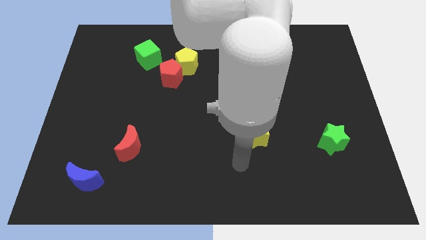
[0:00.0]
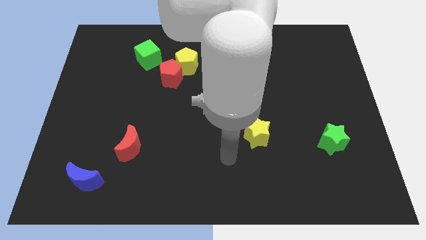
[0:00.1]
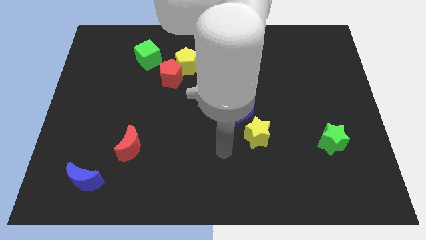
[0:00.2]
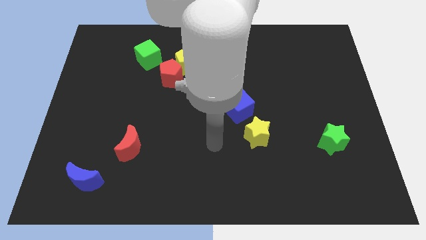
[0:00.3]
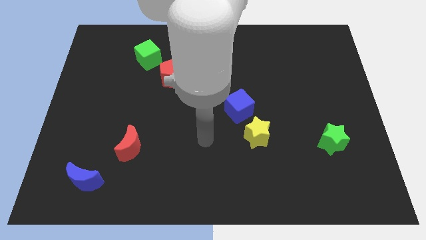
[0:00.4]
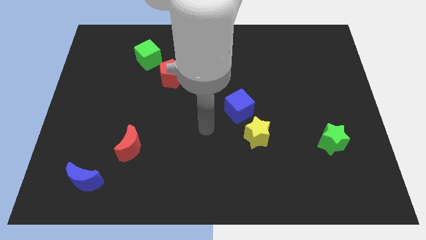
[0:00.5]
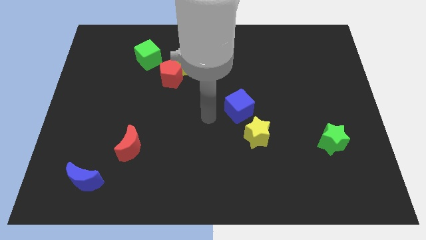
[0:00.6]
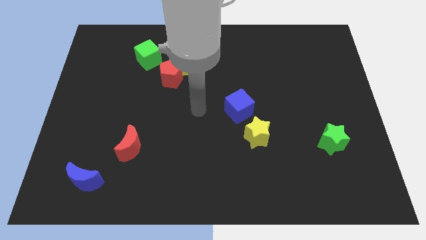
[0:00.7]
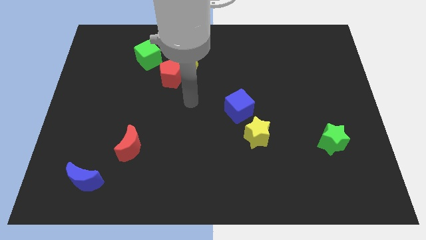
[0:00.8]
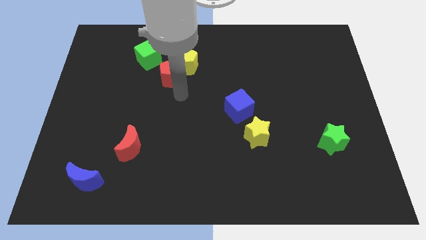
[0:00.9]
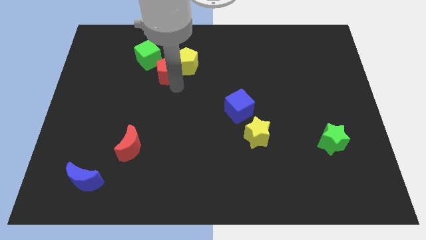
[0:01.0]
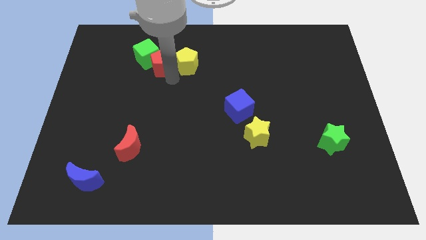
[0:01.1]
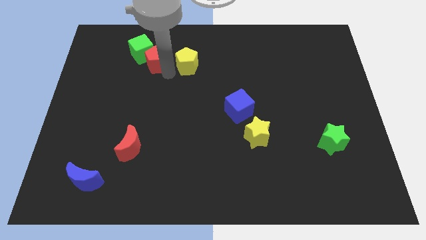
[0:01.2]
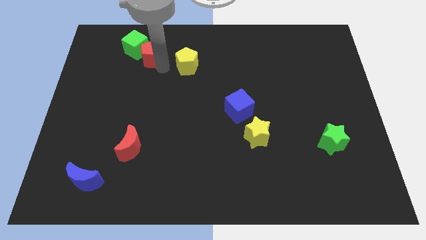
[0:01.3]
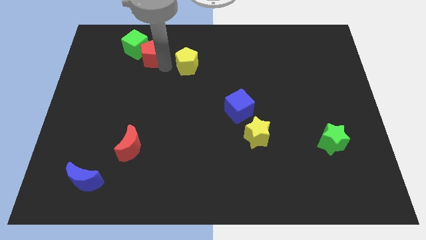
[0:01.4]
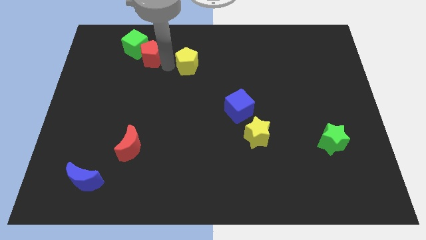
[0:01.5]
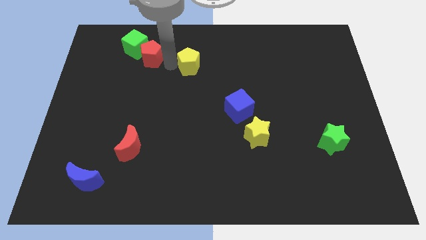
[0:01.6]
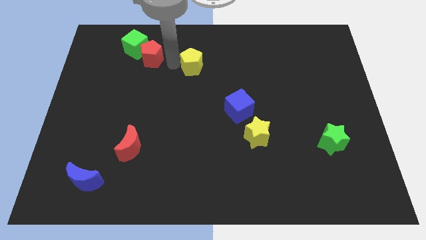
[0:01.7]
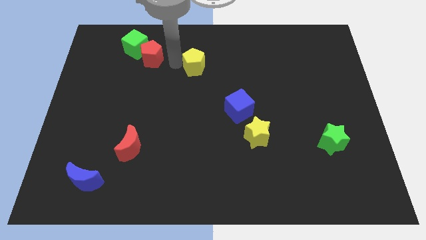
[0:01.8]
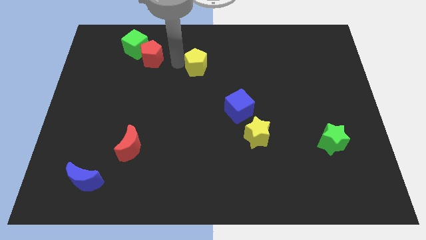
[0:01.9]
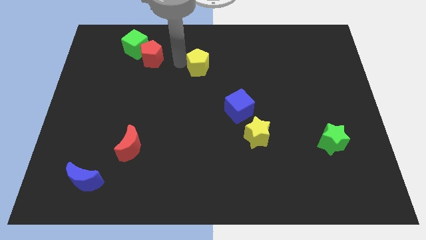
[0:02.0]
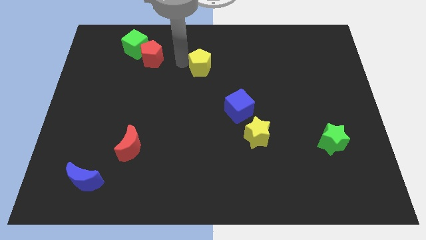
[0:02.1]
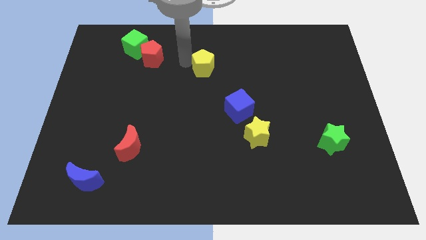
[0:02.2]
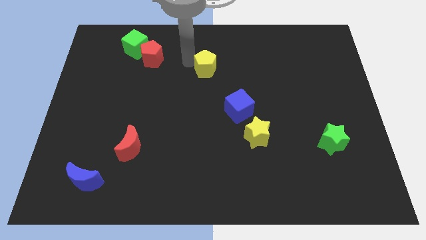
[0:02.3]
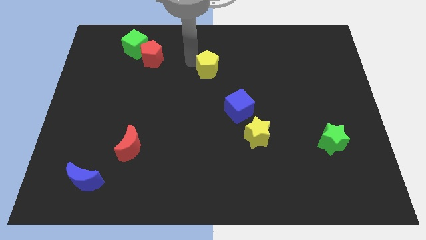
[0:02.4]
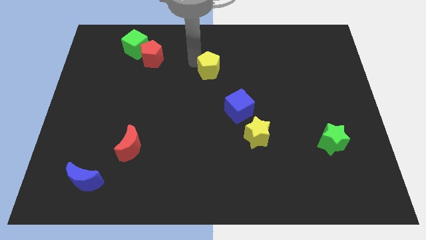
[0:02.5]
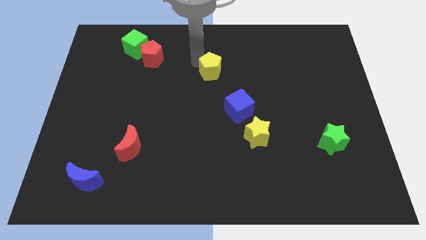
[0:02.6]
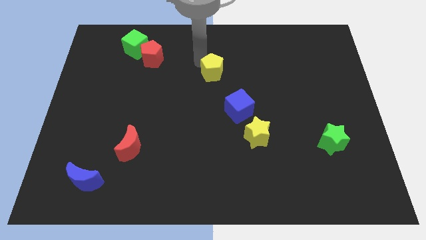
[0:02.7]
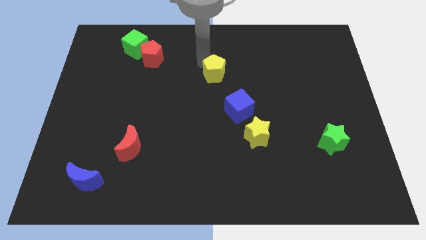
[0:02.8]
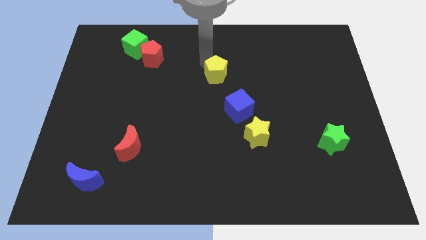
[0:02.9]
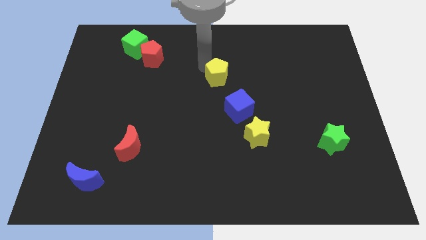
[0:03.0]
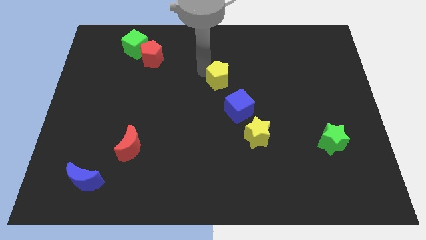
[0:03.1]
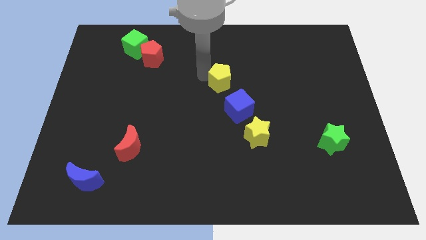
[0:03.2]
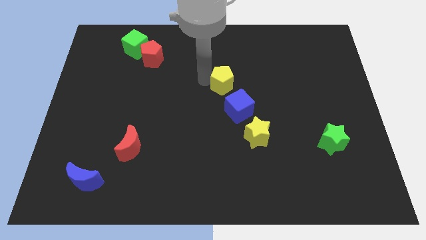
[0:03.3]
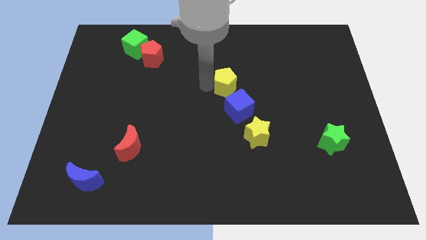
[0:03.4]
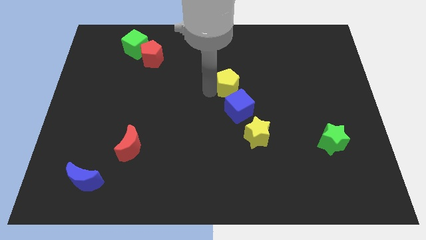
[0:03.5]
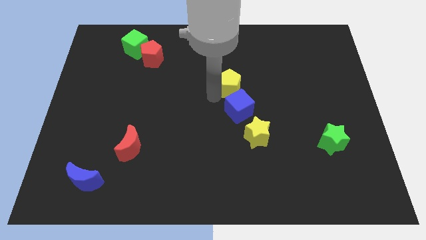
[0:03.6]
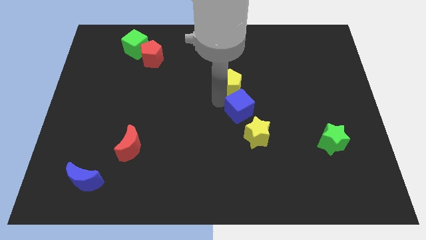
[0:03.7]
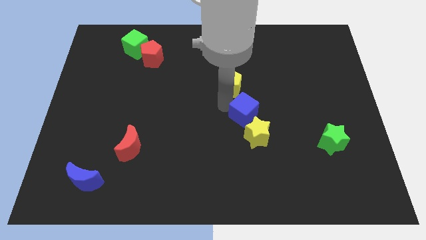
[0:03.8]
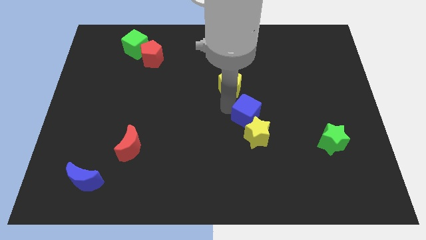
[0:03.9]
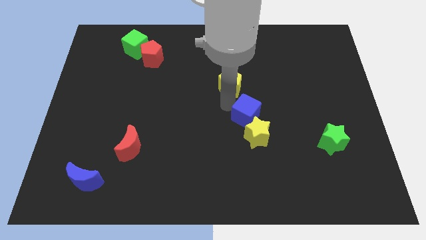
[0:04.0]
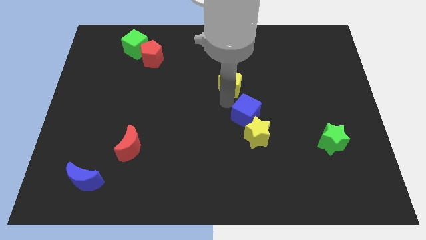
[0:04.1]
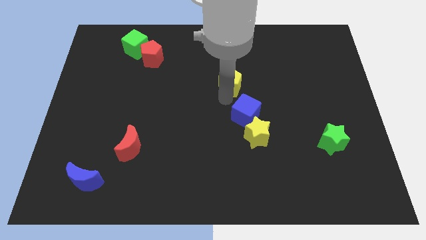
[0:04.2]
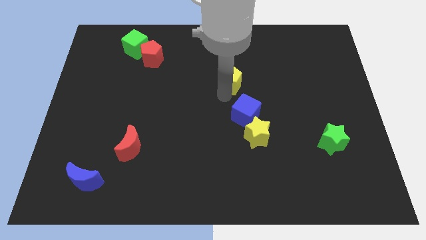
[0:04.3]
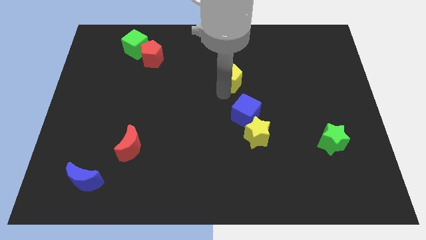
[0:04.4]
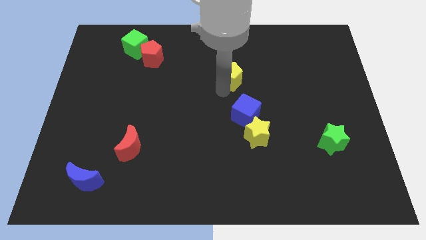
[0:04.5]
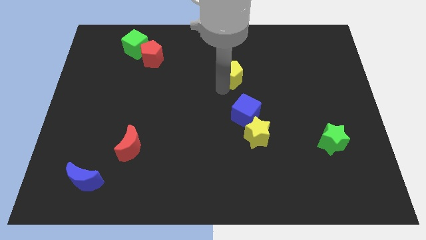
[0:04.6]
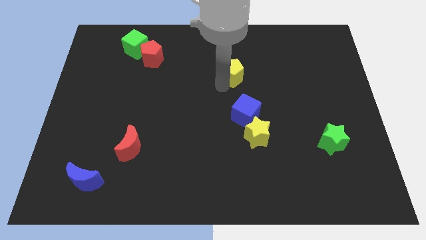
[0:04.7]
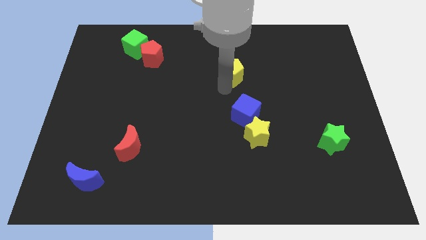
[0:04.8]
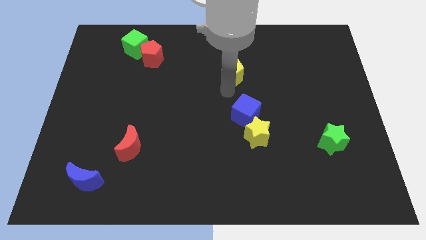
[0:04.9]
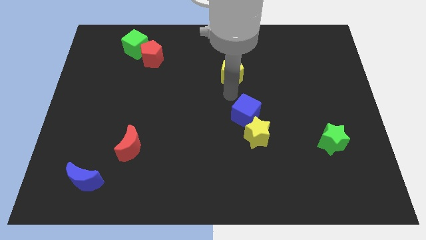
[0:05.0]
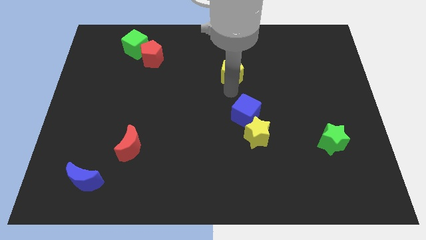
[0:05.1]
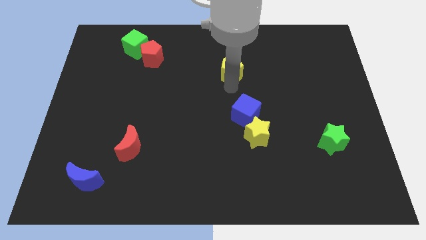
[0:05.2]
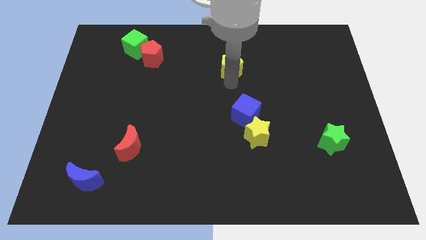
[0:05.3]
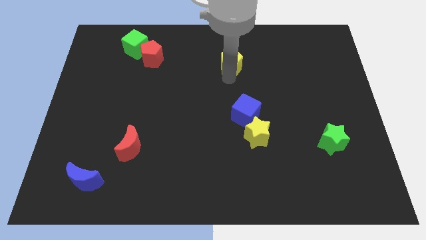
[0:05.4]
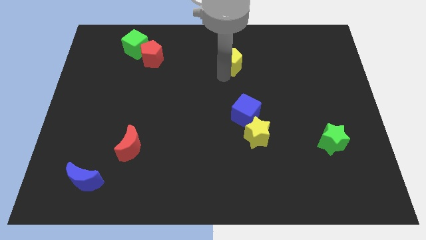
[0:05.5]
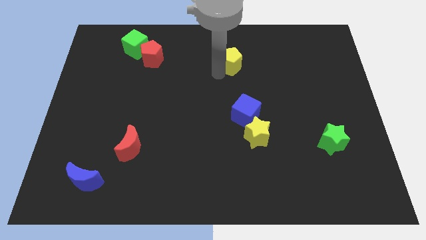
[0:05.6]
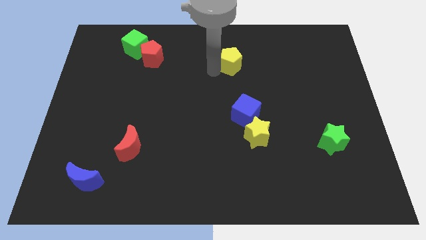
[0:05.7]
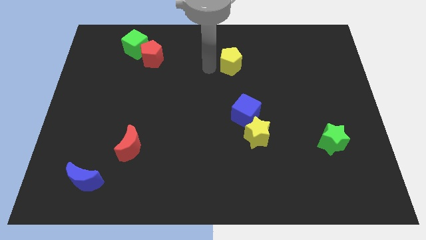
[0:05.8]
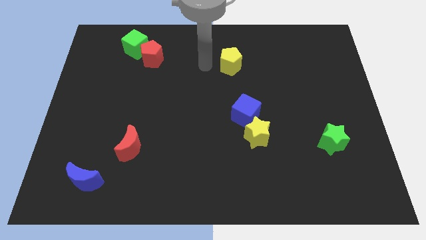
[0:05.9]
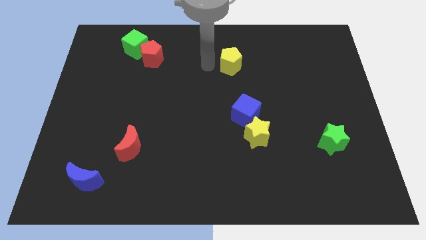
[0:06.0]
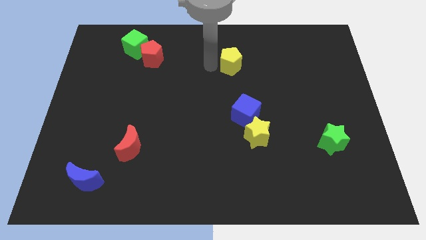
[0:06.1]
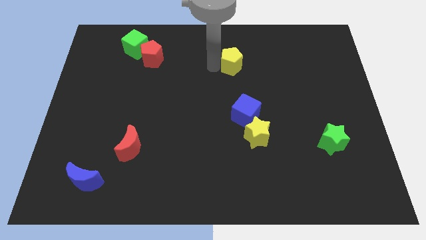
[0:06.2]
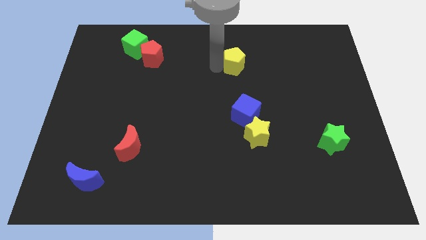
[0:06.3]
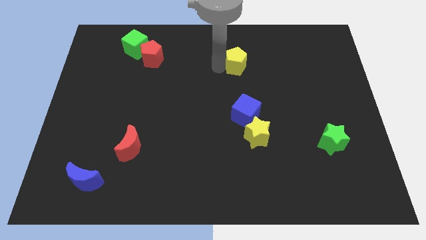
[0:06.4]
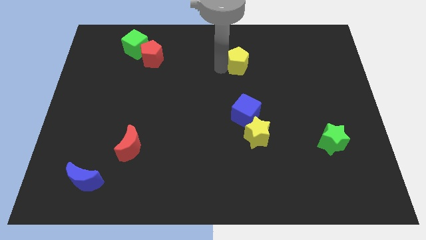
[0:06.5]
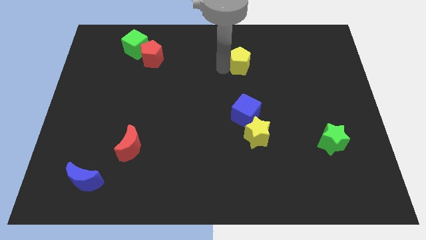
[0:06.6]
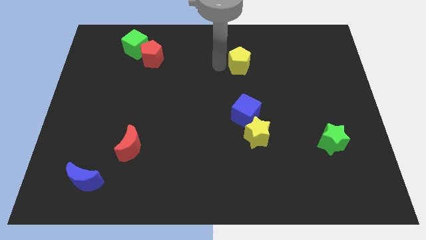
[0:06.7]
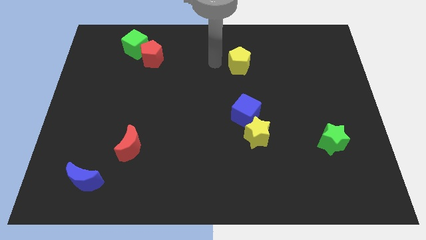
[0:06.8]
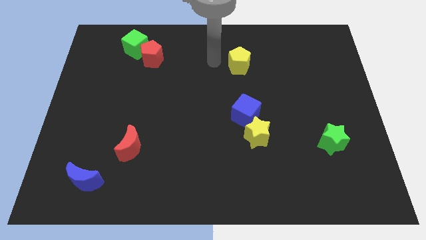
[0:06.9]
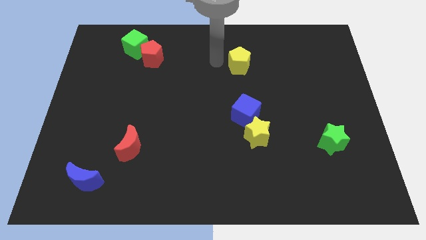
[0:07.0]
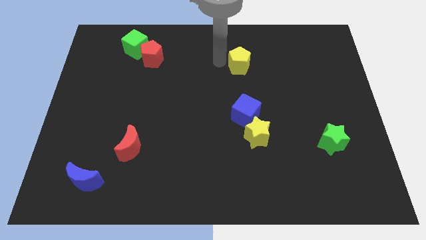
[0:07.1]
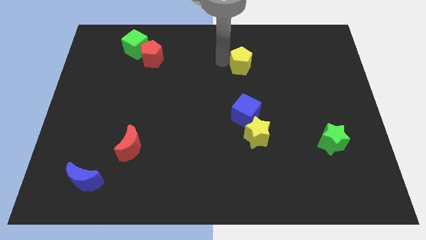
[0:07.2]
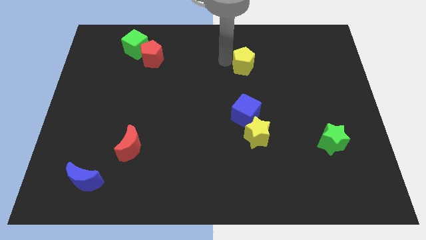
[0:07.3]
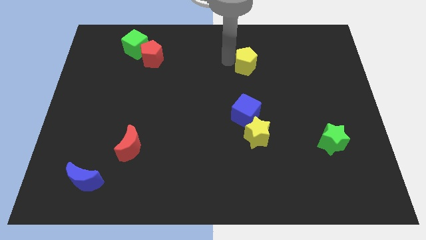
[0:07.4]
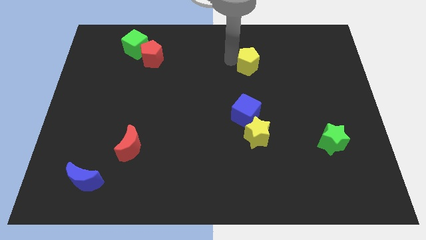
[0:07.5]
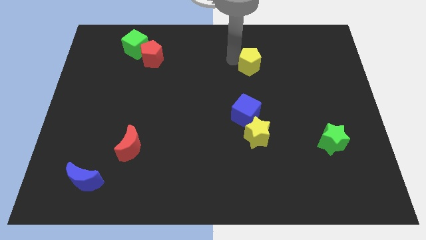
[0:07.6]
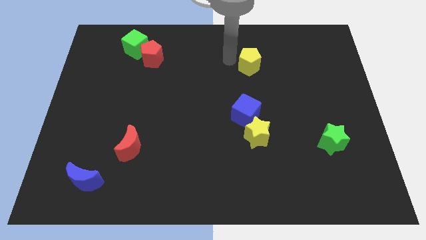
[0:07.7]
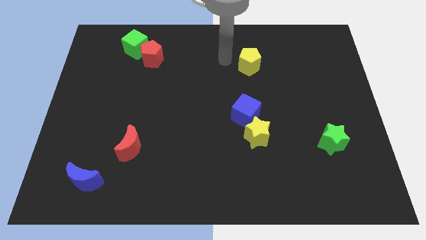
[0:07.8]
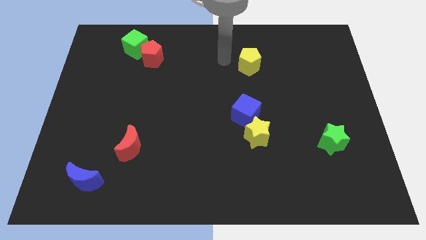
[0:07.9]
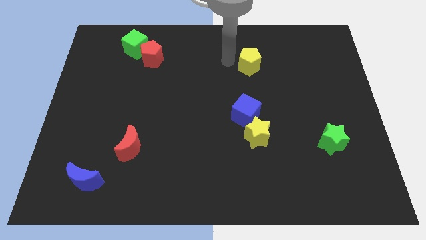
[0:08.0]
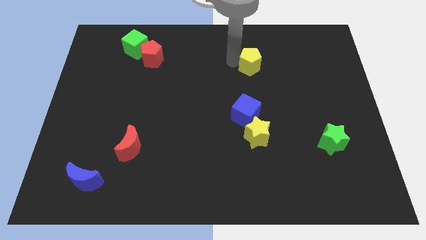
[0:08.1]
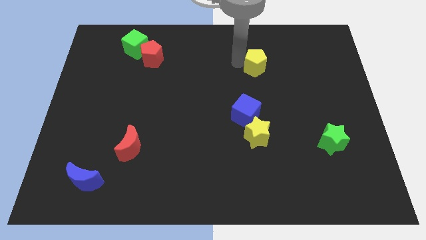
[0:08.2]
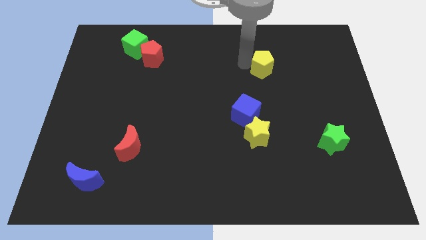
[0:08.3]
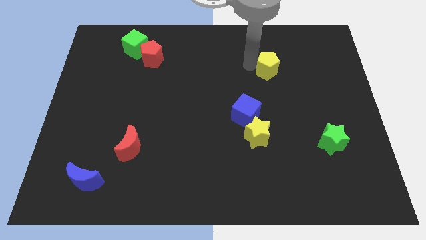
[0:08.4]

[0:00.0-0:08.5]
move the yellow pentagon right
